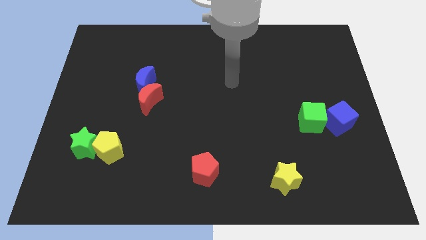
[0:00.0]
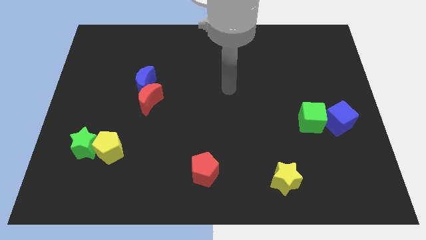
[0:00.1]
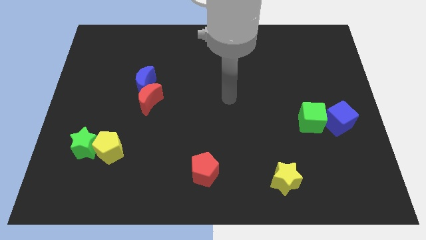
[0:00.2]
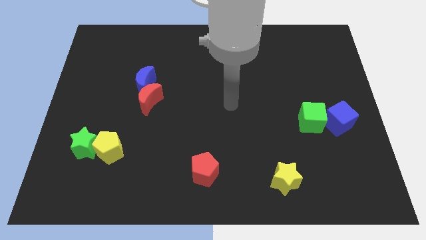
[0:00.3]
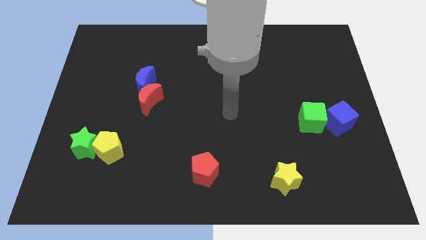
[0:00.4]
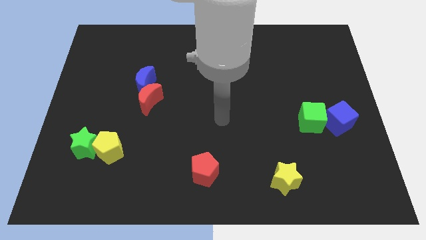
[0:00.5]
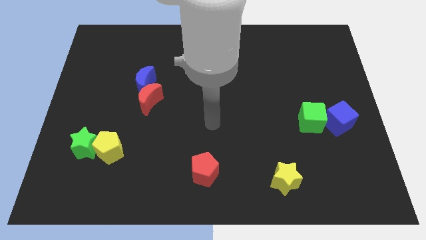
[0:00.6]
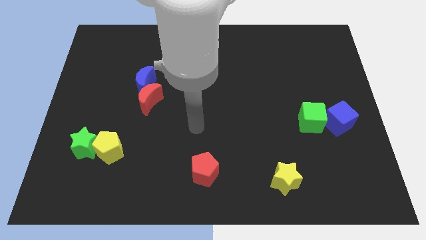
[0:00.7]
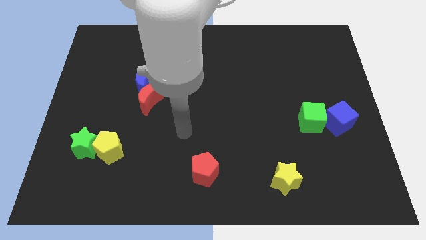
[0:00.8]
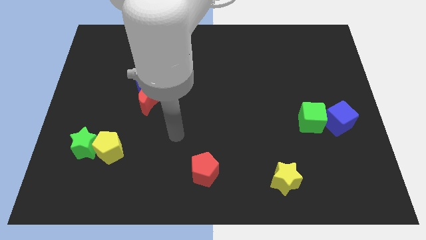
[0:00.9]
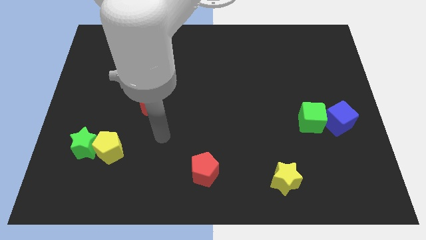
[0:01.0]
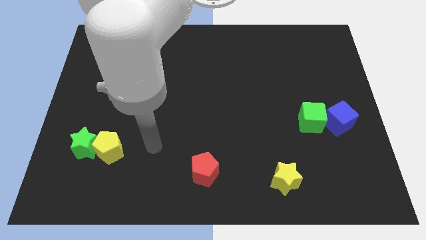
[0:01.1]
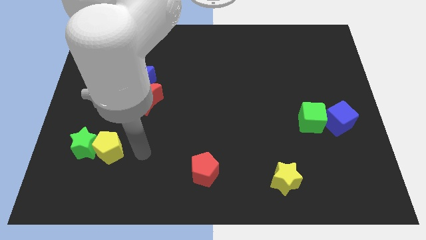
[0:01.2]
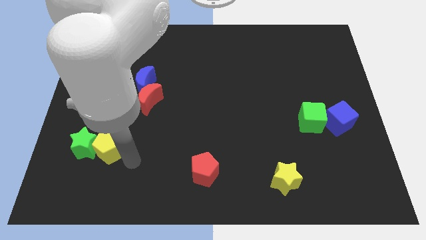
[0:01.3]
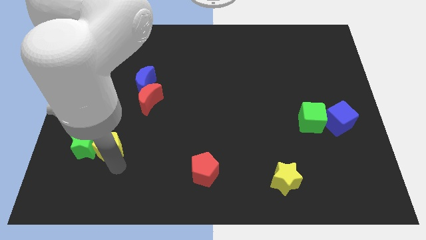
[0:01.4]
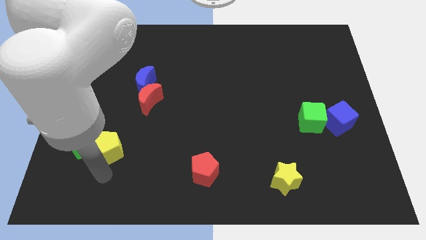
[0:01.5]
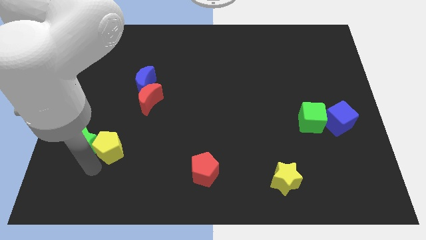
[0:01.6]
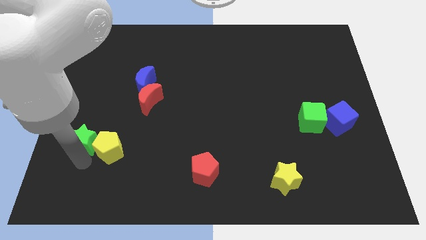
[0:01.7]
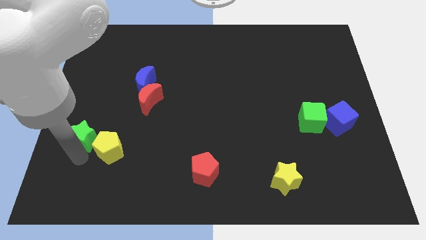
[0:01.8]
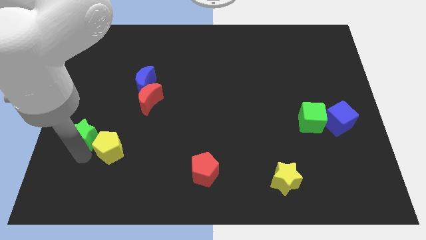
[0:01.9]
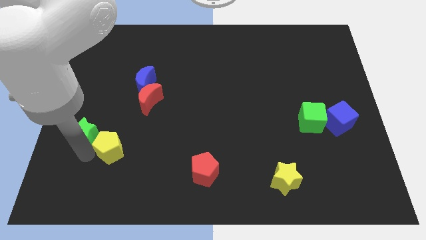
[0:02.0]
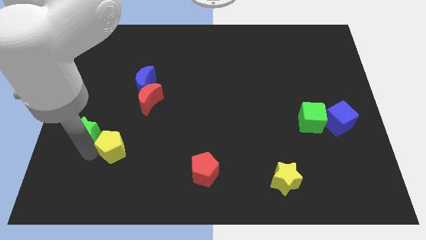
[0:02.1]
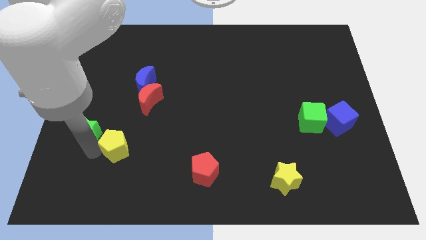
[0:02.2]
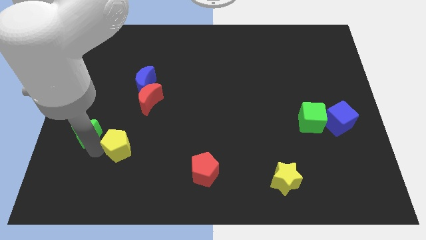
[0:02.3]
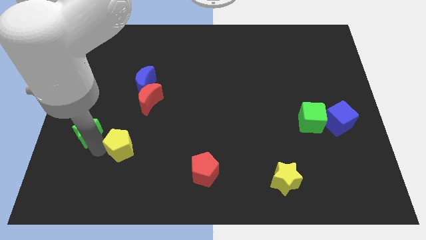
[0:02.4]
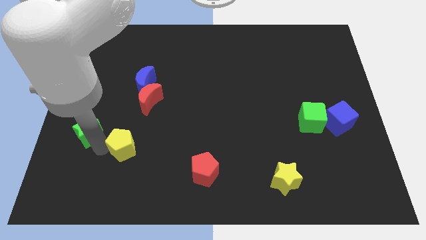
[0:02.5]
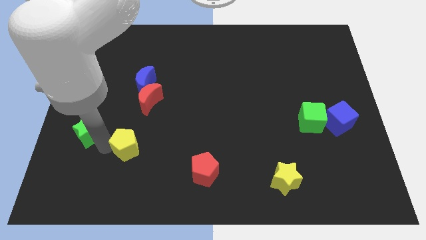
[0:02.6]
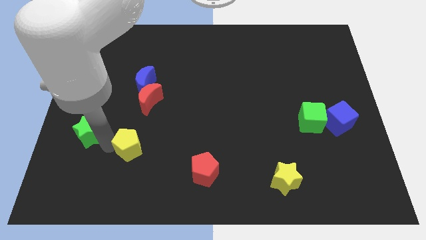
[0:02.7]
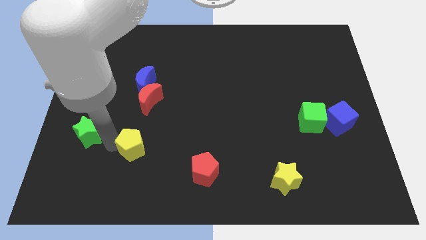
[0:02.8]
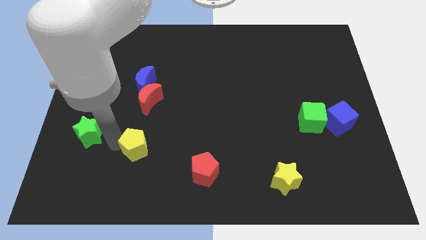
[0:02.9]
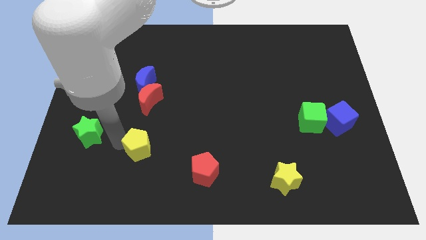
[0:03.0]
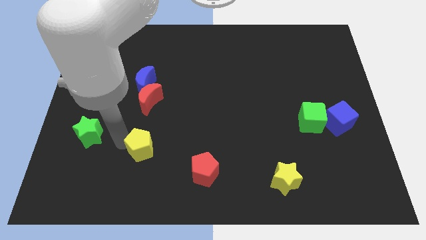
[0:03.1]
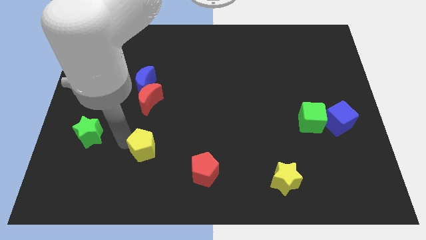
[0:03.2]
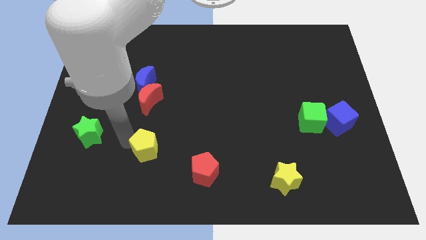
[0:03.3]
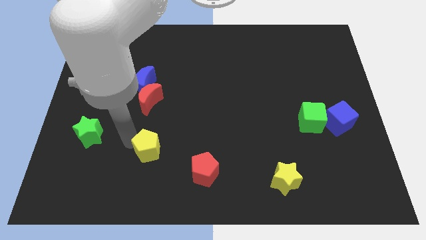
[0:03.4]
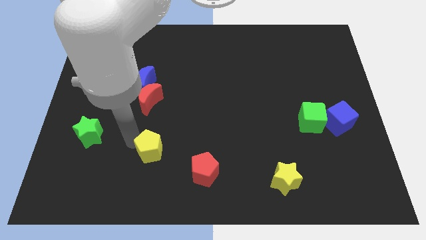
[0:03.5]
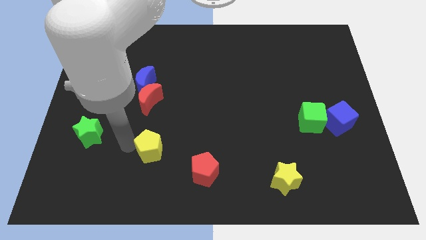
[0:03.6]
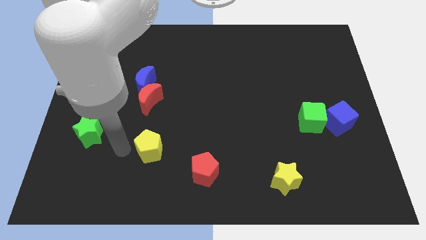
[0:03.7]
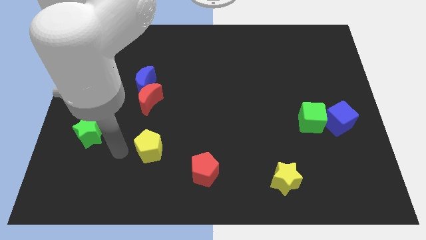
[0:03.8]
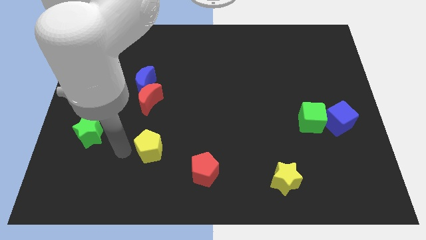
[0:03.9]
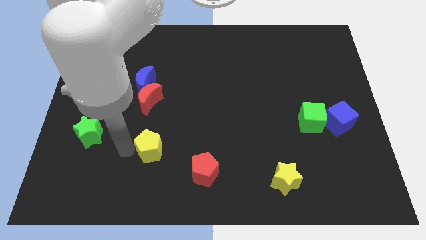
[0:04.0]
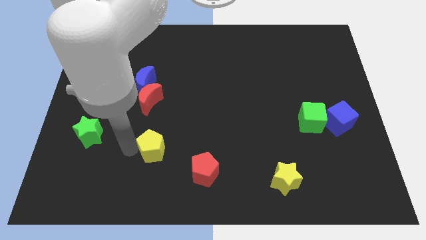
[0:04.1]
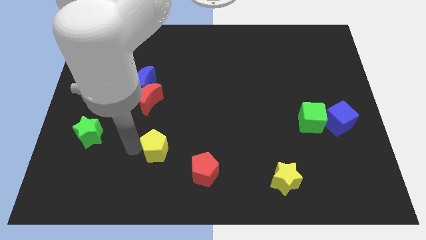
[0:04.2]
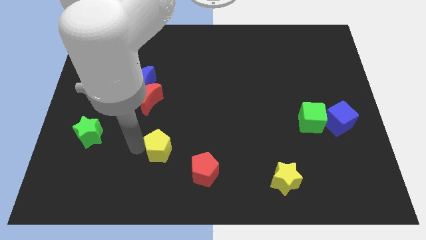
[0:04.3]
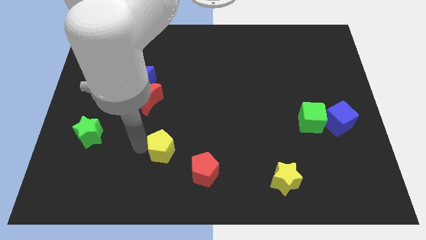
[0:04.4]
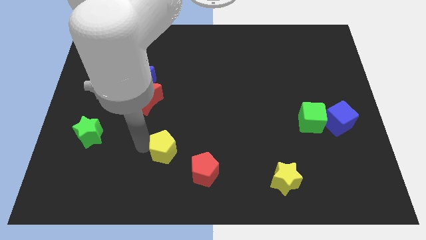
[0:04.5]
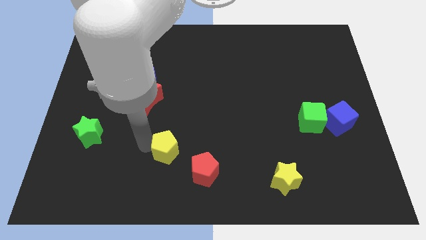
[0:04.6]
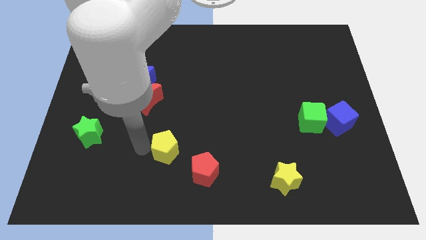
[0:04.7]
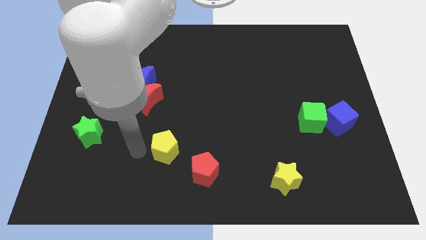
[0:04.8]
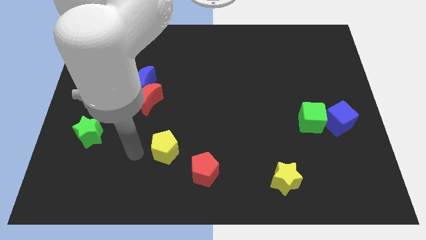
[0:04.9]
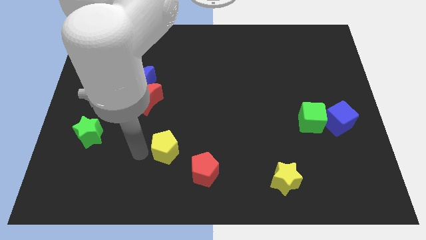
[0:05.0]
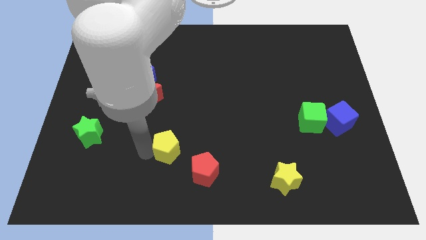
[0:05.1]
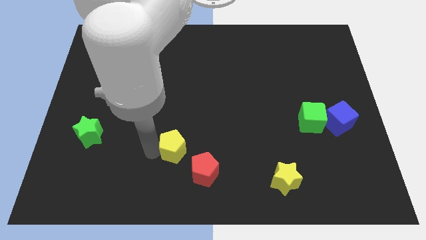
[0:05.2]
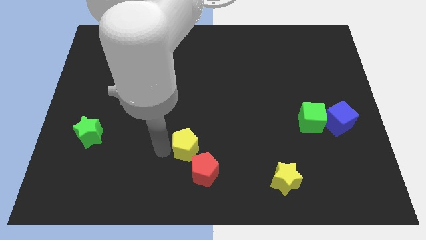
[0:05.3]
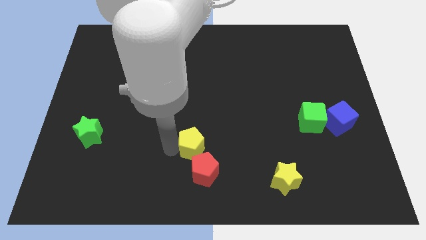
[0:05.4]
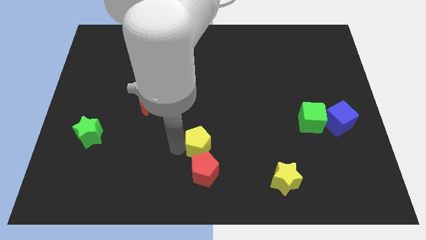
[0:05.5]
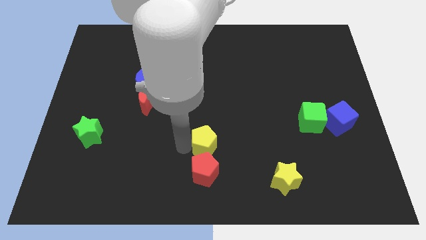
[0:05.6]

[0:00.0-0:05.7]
move the yellow pentagon to the right

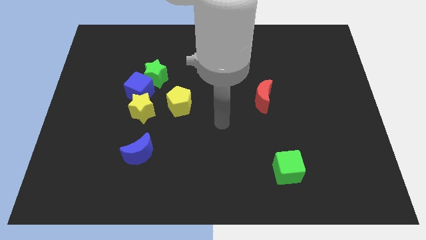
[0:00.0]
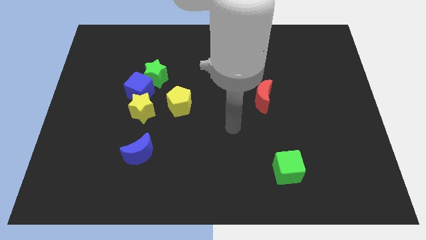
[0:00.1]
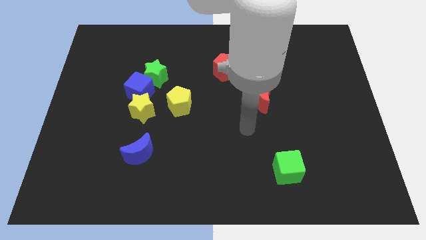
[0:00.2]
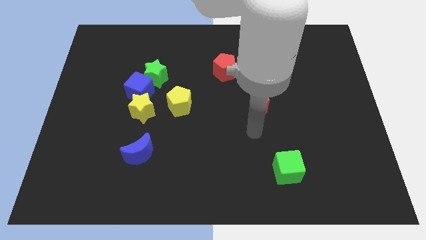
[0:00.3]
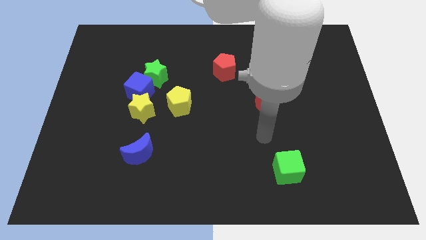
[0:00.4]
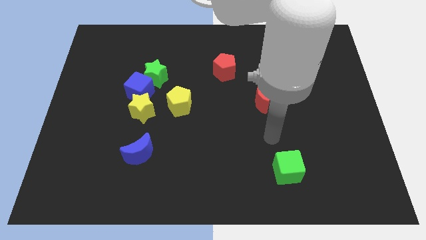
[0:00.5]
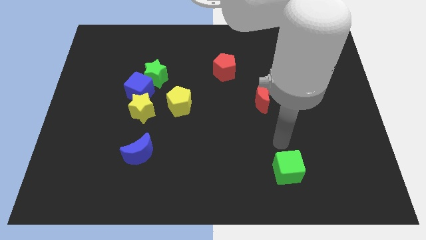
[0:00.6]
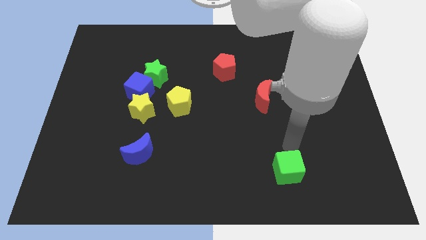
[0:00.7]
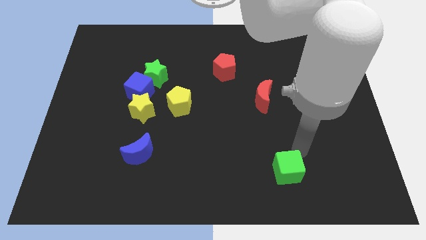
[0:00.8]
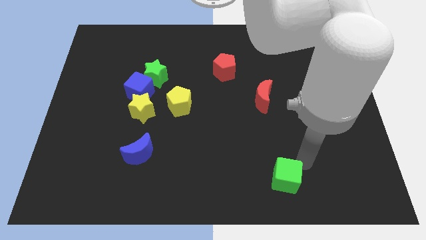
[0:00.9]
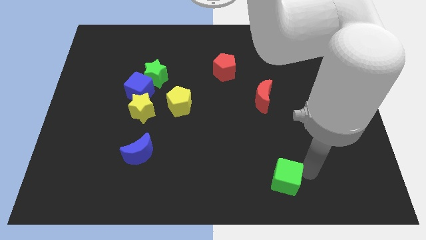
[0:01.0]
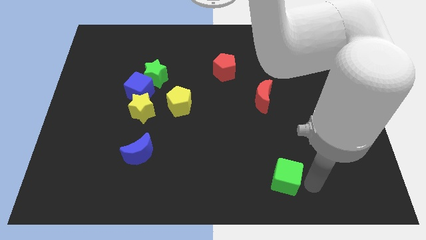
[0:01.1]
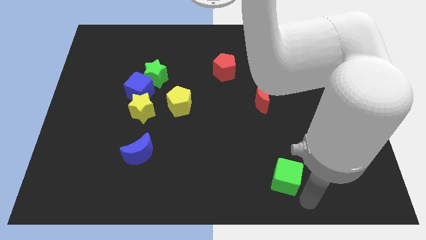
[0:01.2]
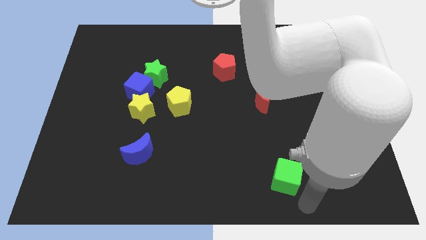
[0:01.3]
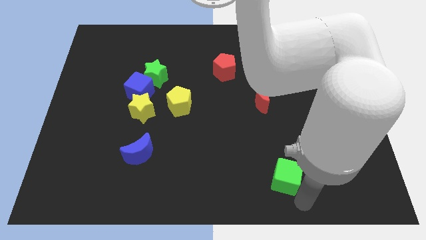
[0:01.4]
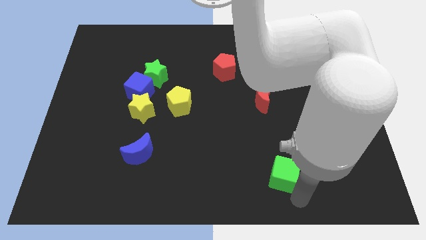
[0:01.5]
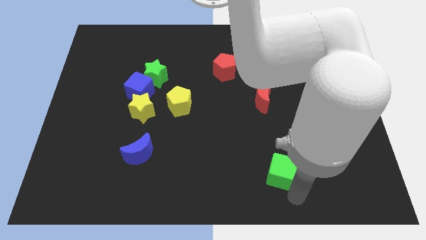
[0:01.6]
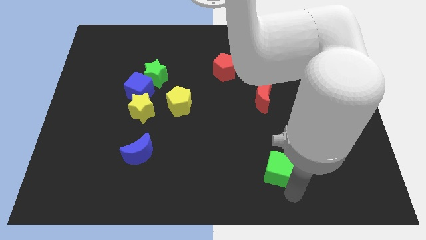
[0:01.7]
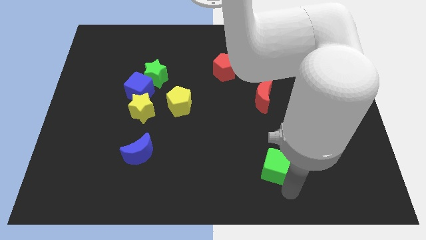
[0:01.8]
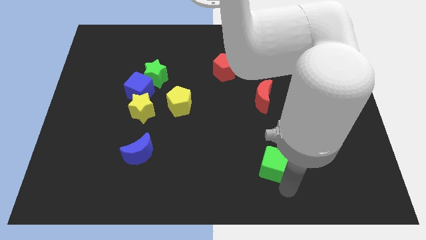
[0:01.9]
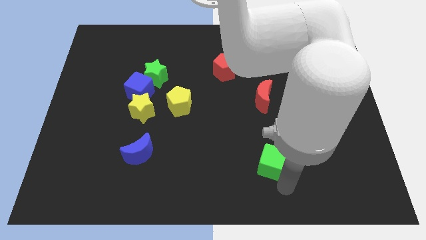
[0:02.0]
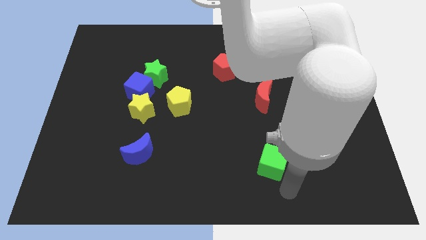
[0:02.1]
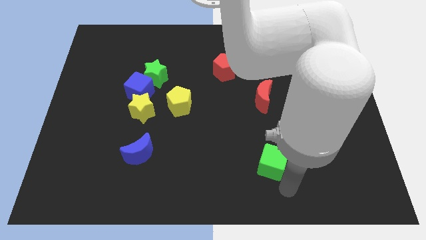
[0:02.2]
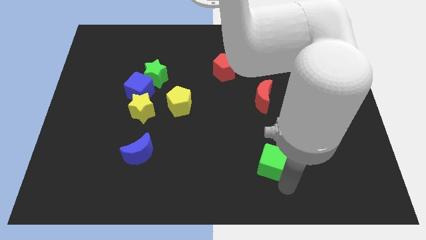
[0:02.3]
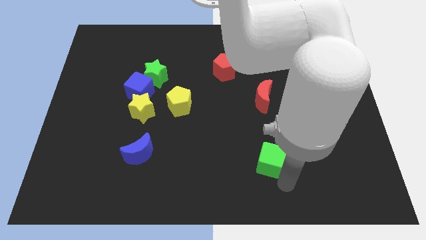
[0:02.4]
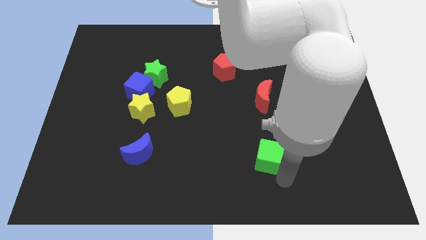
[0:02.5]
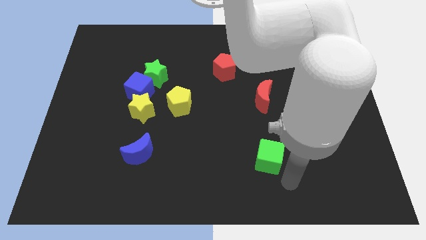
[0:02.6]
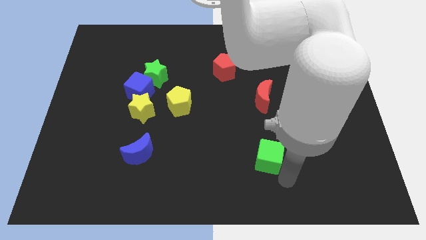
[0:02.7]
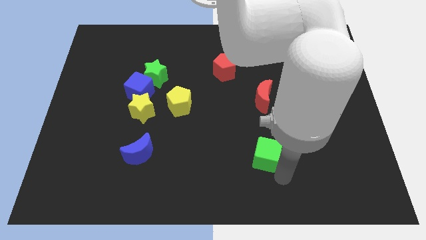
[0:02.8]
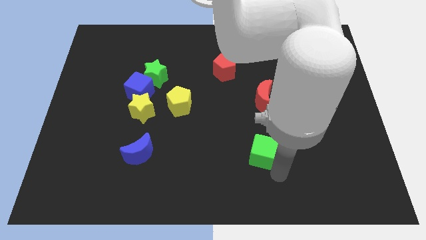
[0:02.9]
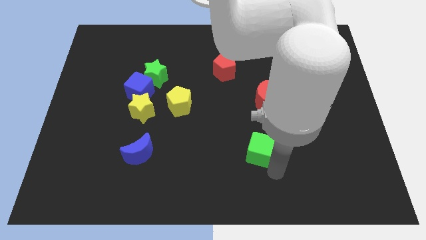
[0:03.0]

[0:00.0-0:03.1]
push the green cube diagonally upwards and left a little bit
